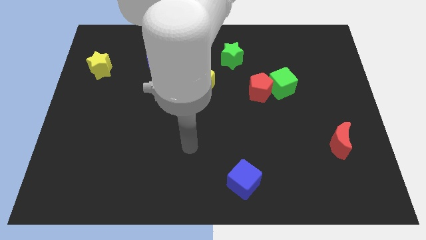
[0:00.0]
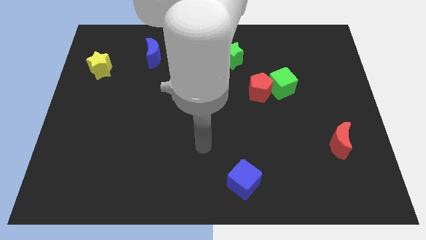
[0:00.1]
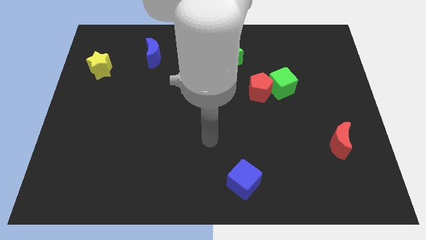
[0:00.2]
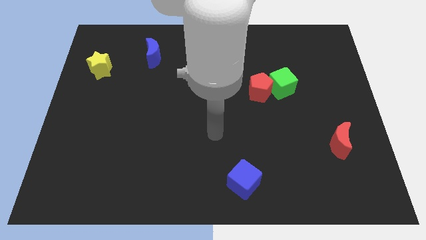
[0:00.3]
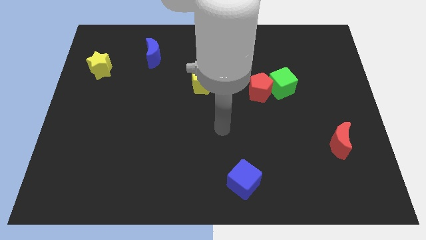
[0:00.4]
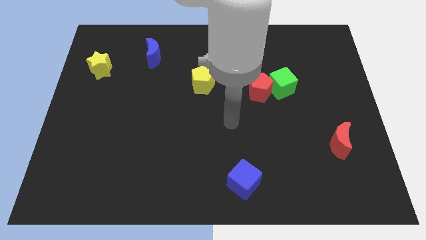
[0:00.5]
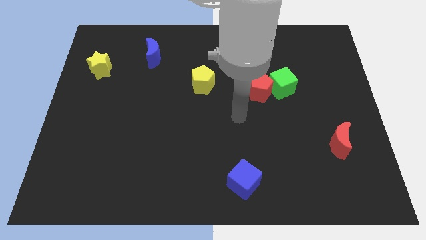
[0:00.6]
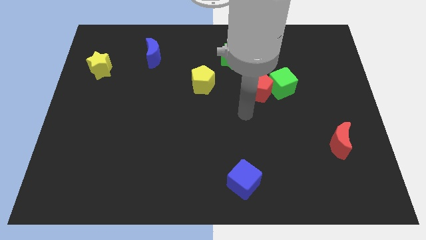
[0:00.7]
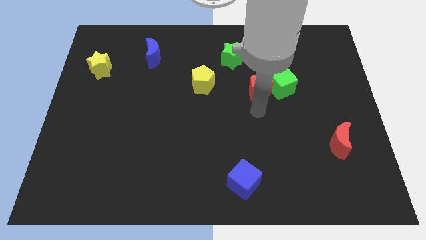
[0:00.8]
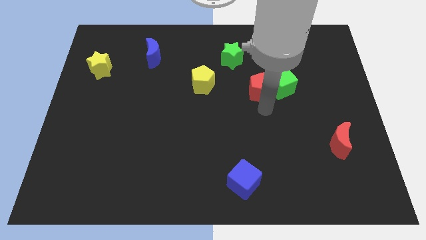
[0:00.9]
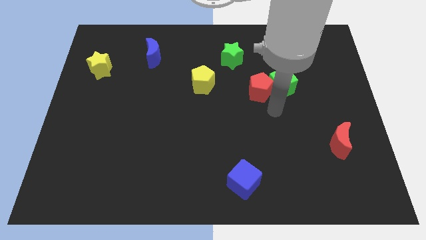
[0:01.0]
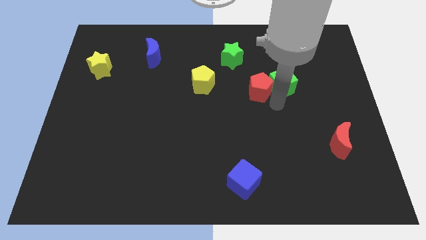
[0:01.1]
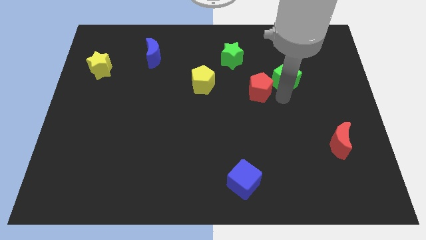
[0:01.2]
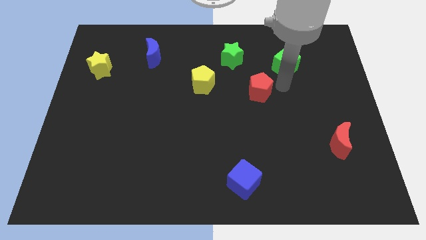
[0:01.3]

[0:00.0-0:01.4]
pull the red pentagon apart from the green cube

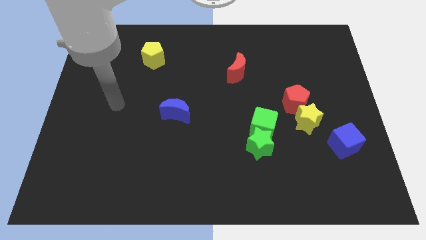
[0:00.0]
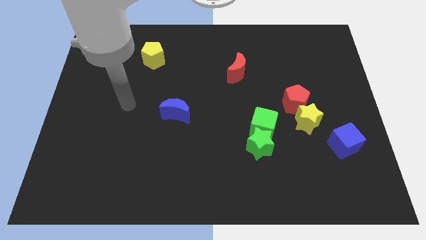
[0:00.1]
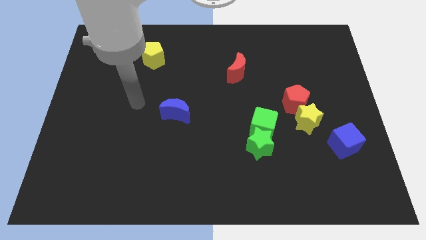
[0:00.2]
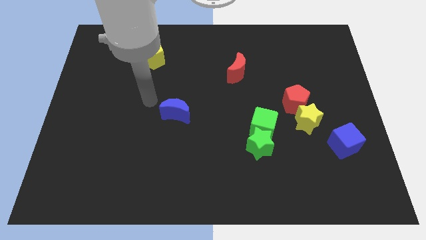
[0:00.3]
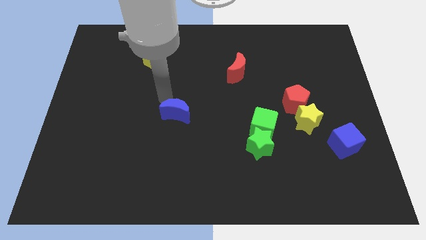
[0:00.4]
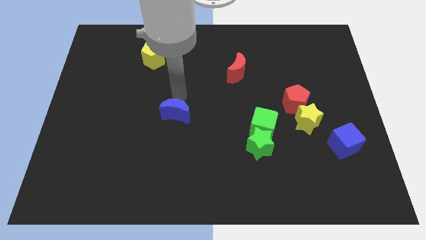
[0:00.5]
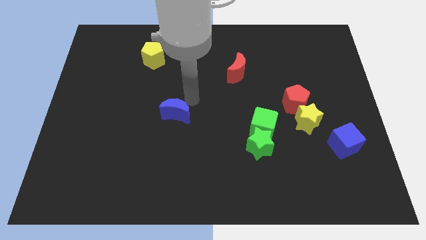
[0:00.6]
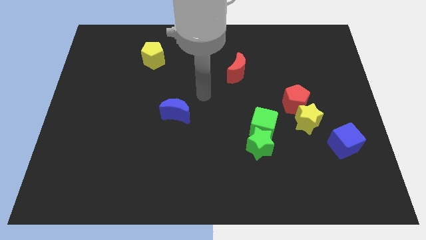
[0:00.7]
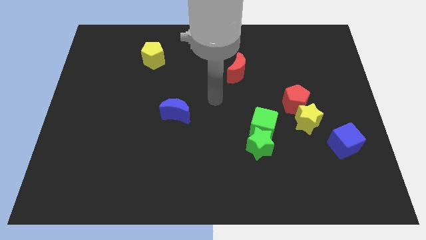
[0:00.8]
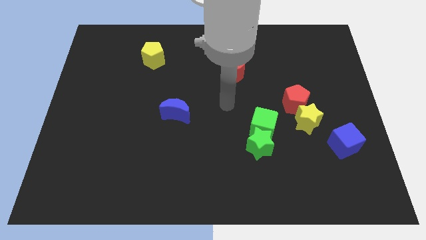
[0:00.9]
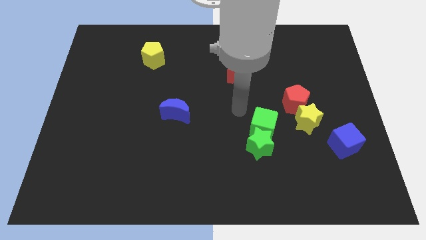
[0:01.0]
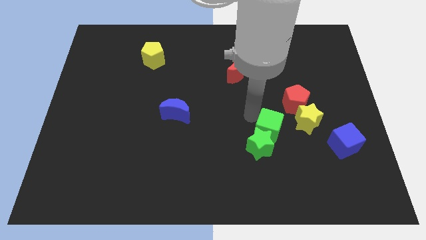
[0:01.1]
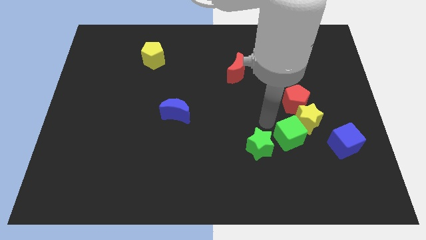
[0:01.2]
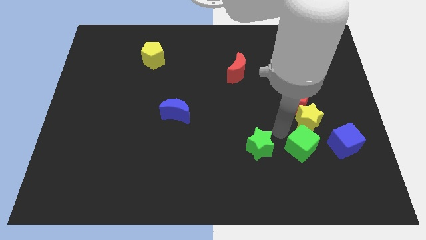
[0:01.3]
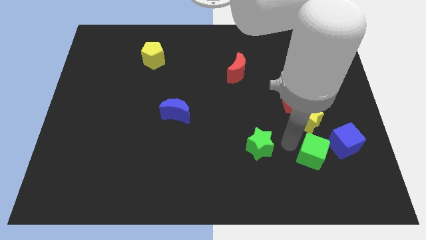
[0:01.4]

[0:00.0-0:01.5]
separate the green star from the green cube

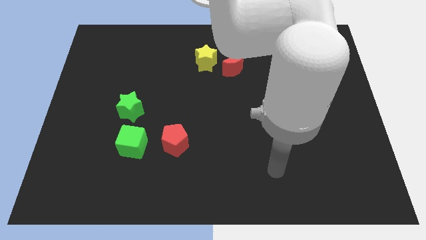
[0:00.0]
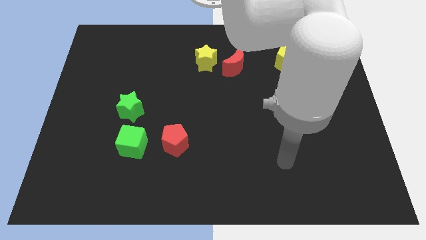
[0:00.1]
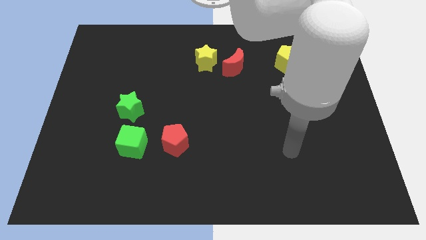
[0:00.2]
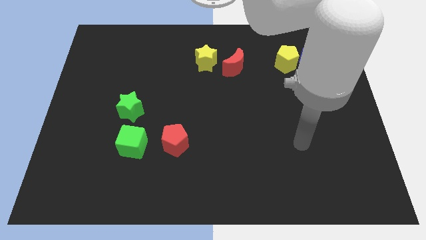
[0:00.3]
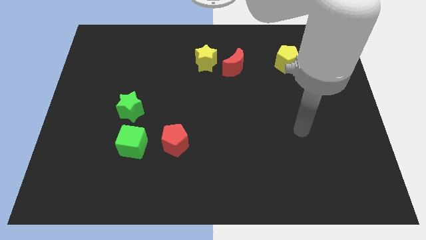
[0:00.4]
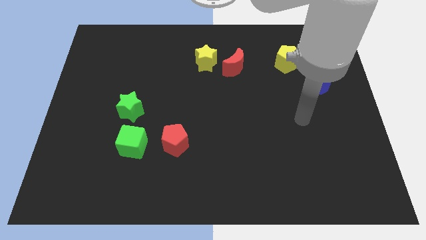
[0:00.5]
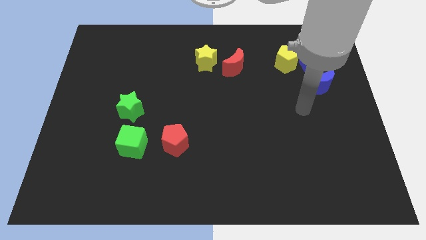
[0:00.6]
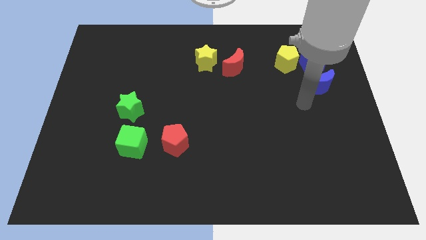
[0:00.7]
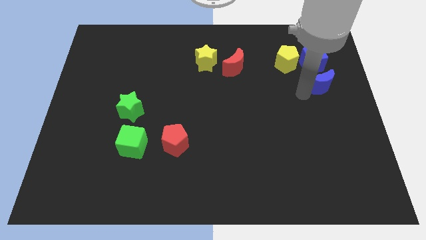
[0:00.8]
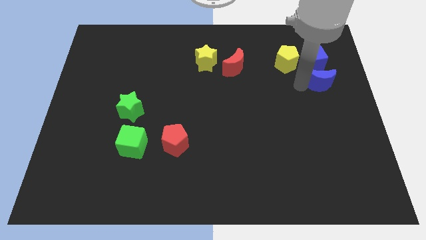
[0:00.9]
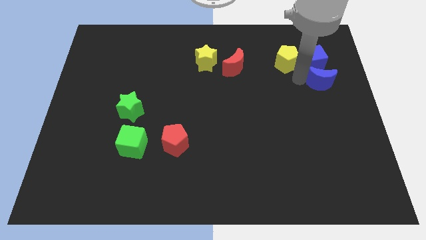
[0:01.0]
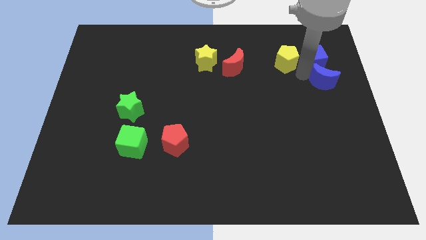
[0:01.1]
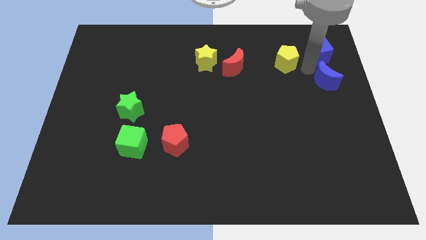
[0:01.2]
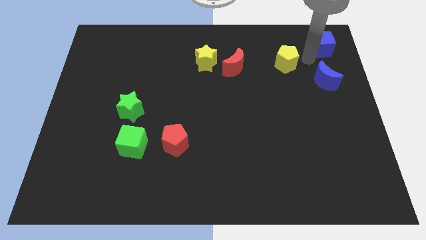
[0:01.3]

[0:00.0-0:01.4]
pull the yellow pentagon apart from the blue cube

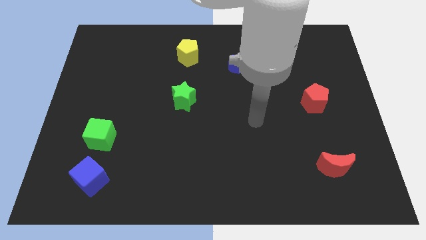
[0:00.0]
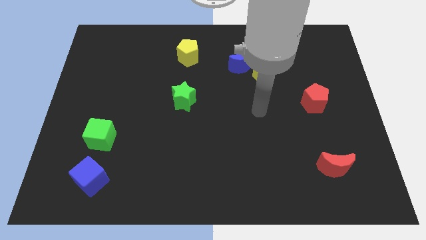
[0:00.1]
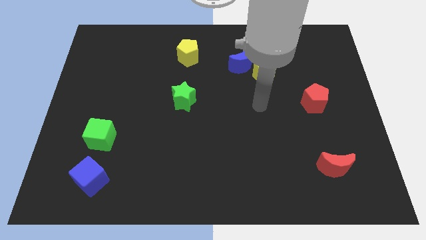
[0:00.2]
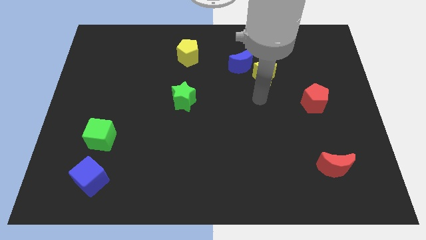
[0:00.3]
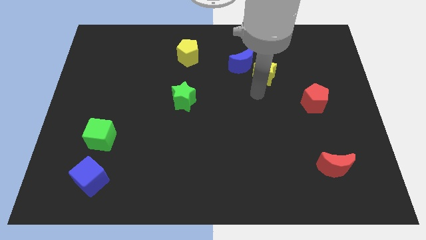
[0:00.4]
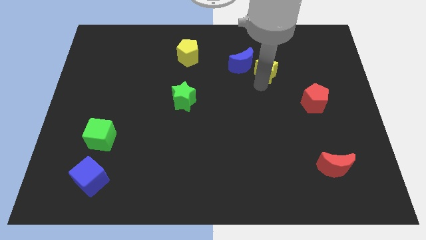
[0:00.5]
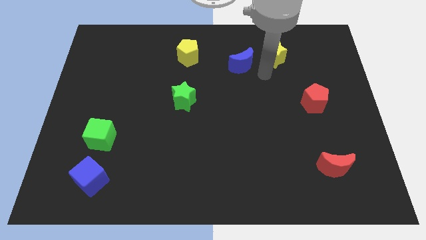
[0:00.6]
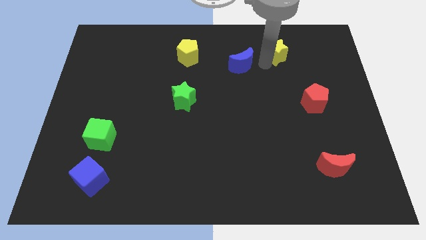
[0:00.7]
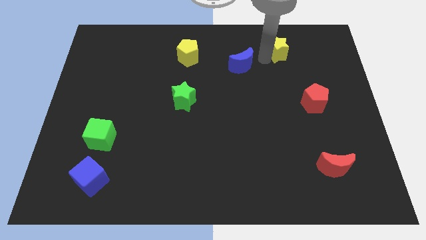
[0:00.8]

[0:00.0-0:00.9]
separate the blue moon from the yellow star

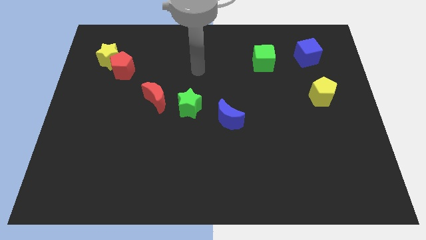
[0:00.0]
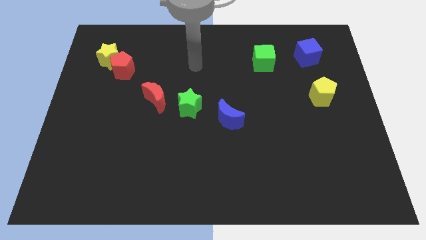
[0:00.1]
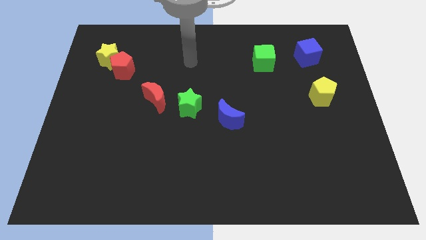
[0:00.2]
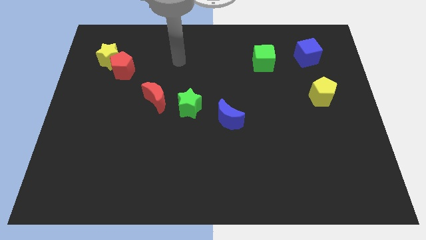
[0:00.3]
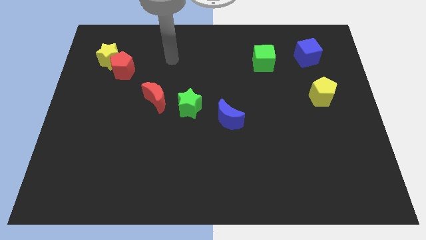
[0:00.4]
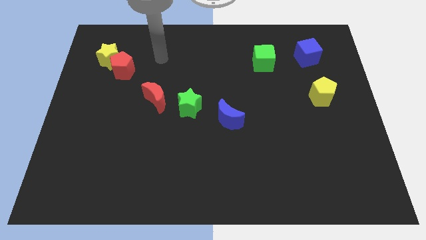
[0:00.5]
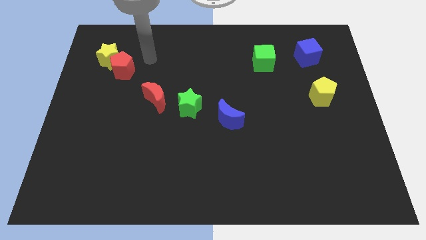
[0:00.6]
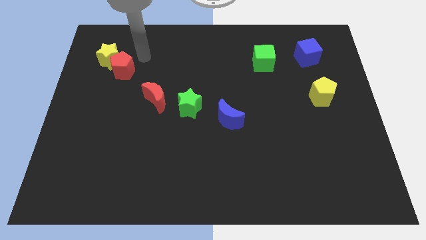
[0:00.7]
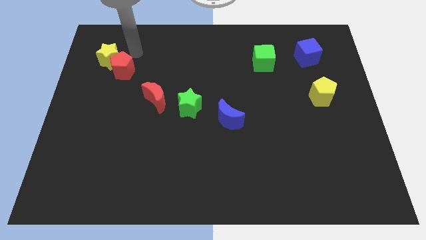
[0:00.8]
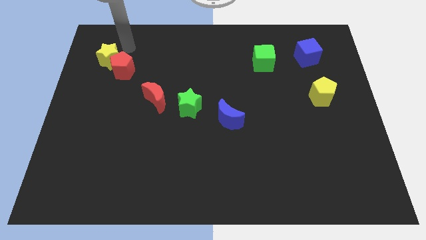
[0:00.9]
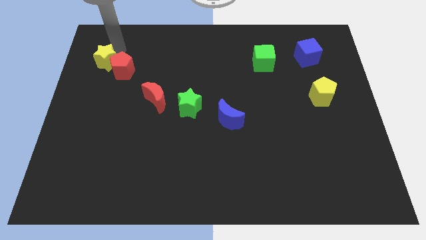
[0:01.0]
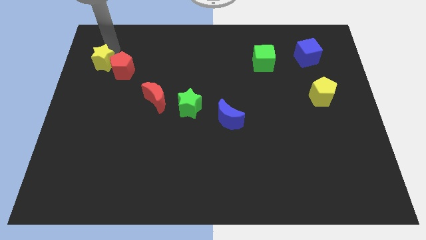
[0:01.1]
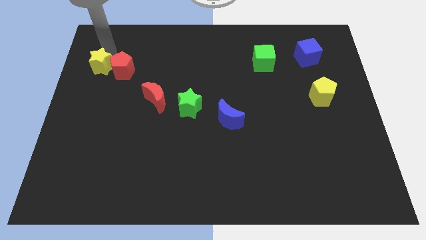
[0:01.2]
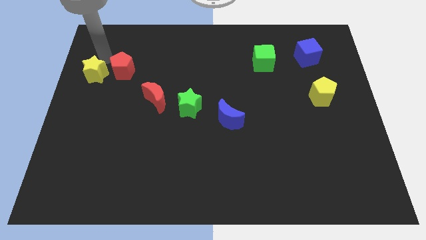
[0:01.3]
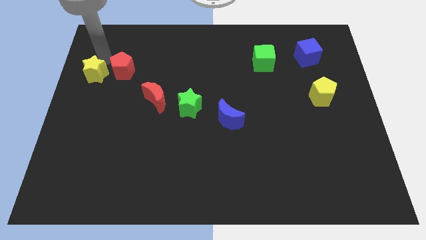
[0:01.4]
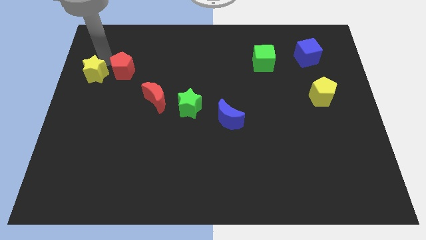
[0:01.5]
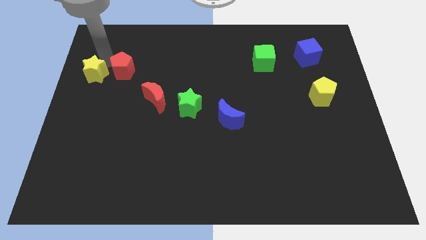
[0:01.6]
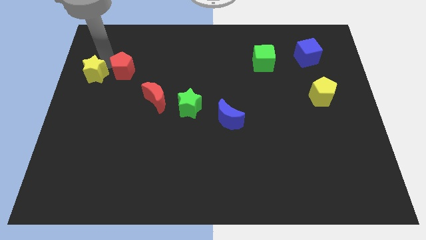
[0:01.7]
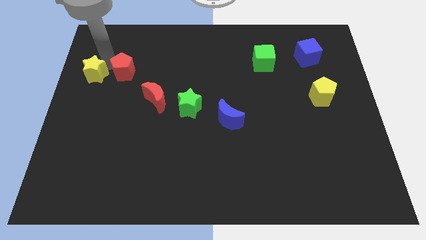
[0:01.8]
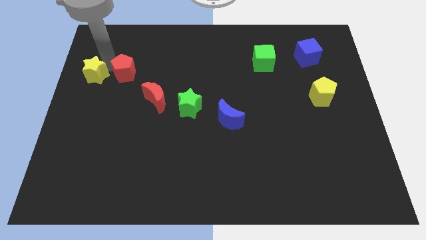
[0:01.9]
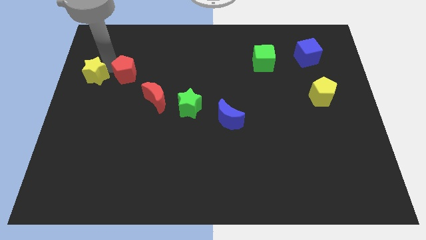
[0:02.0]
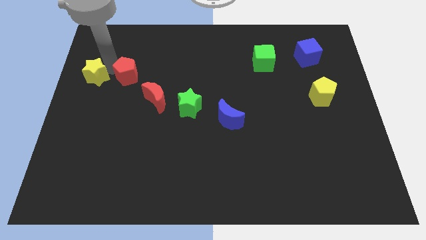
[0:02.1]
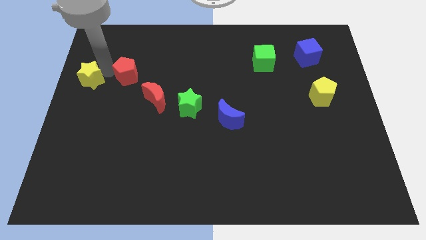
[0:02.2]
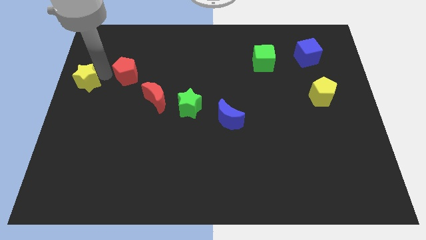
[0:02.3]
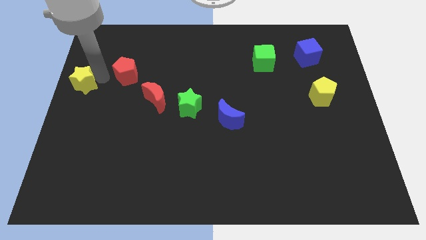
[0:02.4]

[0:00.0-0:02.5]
pull the red pentagon apart from the yellow star

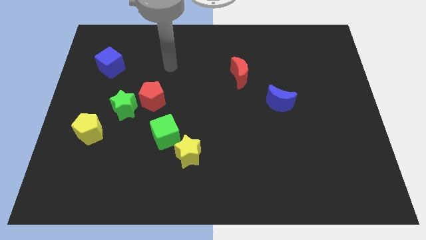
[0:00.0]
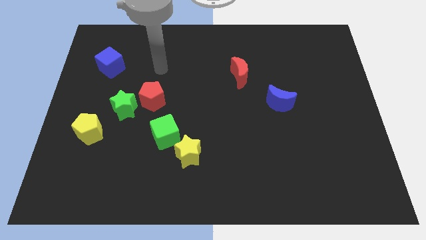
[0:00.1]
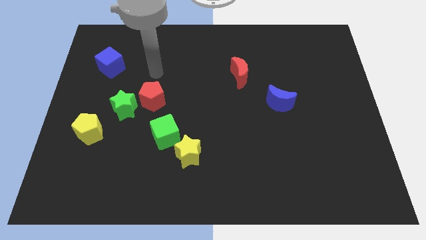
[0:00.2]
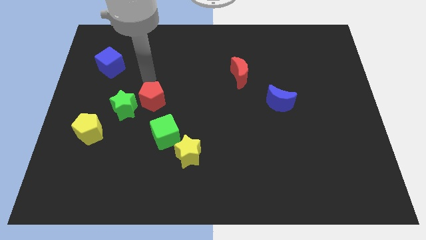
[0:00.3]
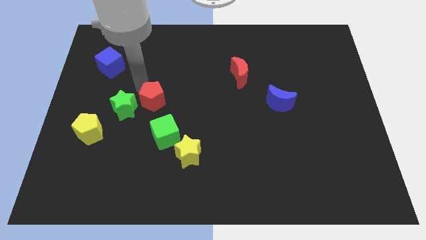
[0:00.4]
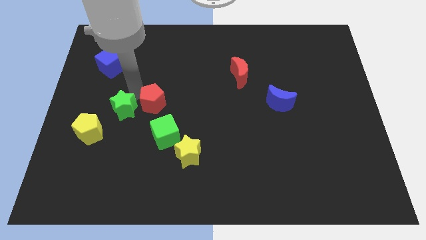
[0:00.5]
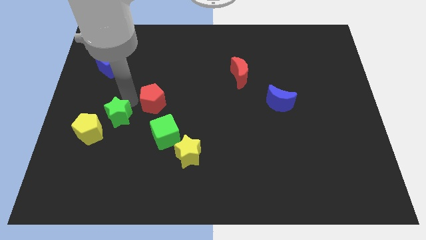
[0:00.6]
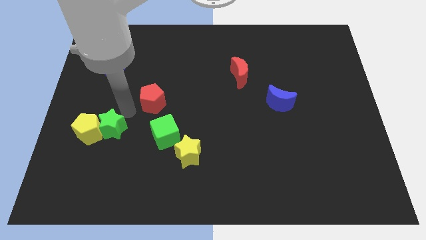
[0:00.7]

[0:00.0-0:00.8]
move the red pentagon away from the green star

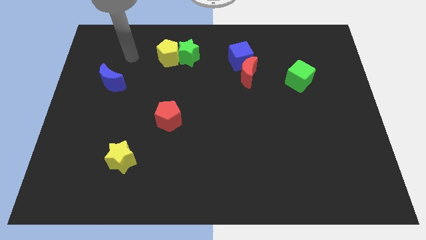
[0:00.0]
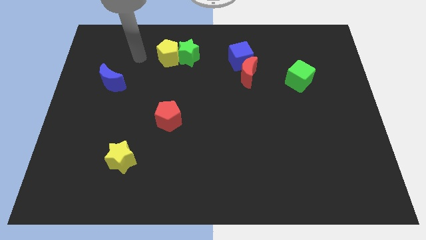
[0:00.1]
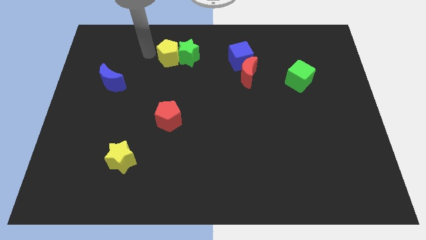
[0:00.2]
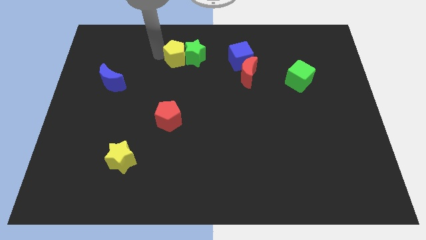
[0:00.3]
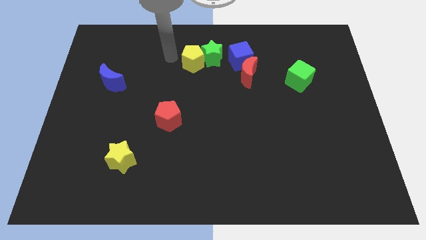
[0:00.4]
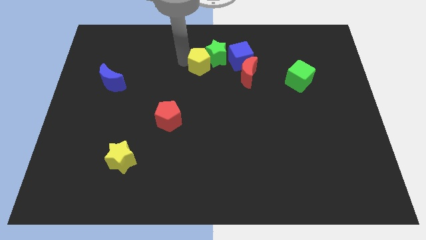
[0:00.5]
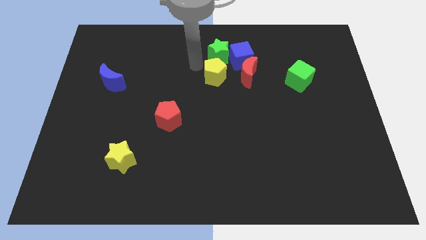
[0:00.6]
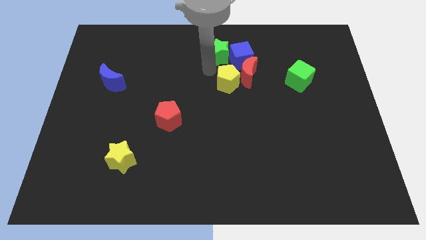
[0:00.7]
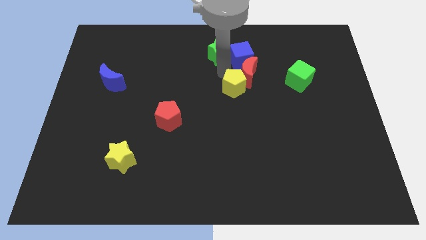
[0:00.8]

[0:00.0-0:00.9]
pull the green star apart from the yellow pentagon
